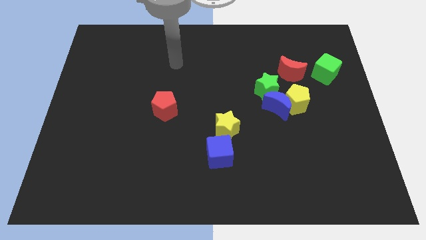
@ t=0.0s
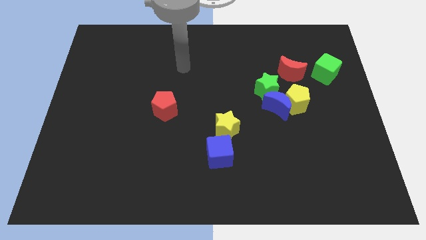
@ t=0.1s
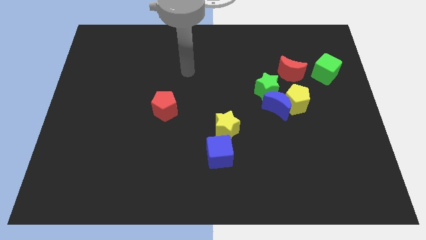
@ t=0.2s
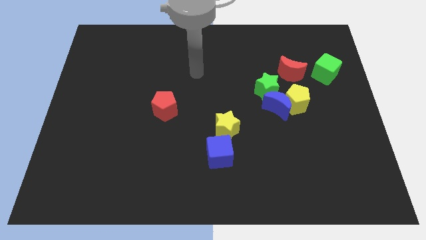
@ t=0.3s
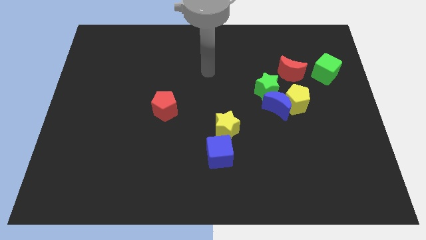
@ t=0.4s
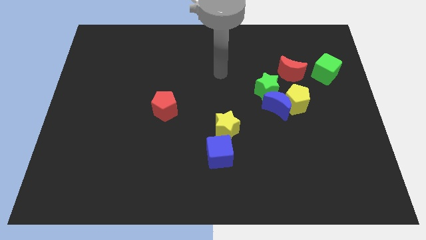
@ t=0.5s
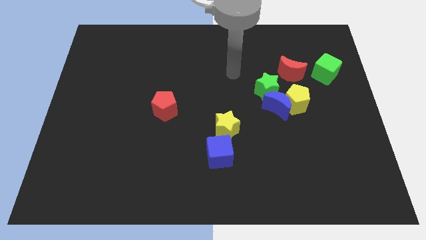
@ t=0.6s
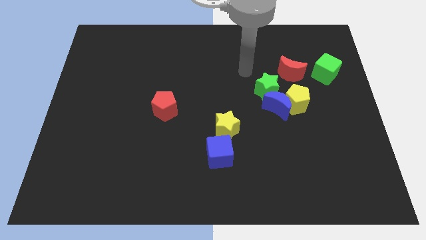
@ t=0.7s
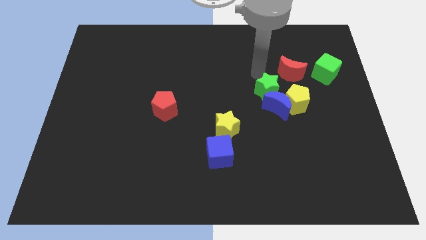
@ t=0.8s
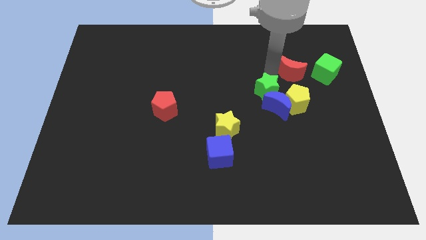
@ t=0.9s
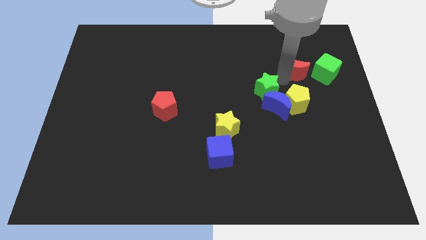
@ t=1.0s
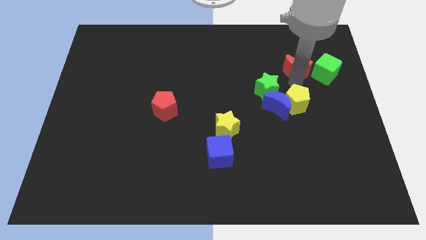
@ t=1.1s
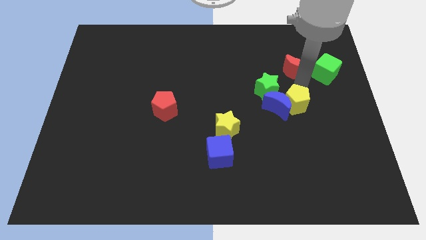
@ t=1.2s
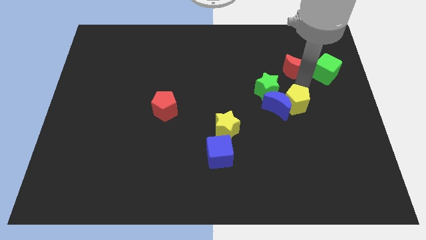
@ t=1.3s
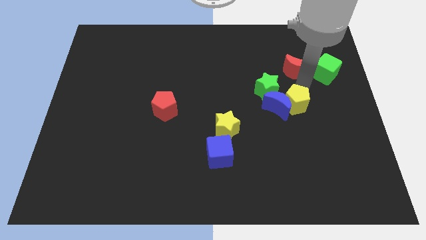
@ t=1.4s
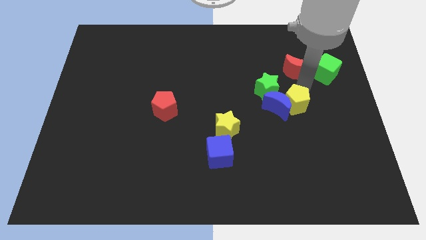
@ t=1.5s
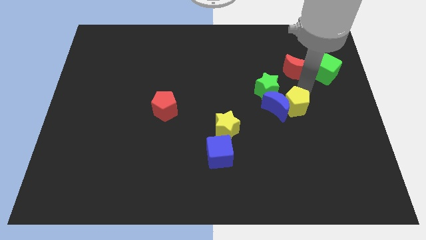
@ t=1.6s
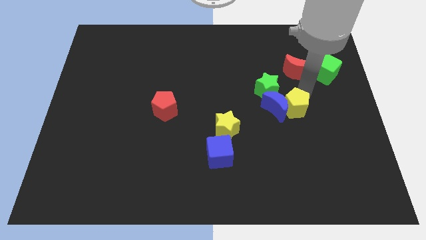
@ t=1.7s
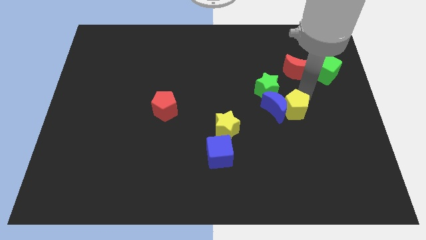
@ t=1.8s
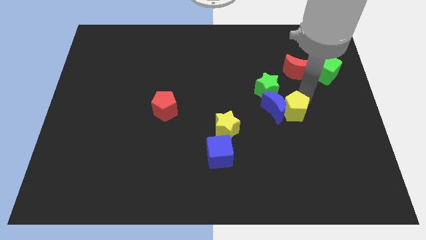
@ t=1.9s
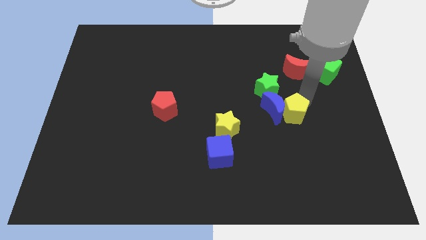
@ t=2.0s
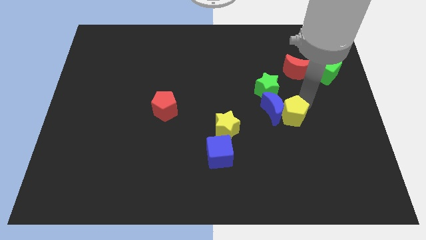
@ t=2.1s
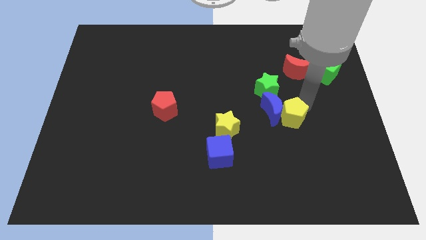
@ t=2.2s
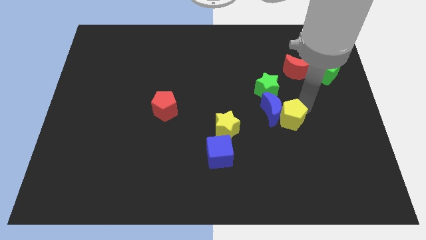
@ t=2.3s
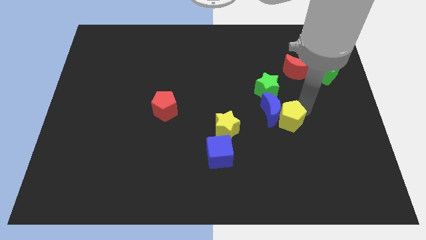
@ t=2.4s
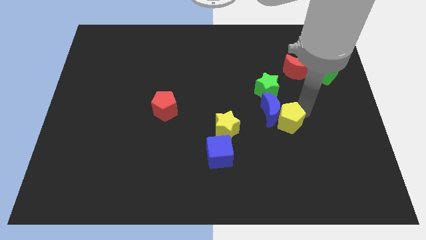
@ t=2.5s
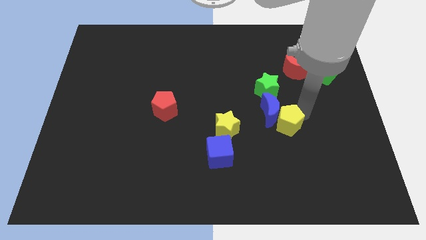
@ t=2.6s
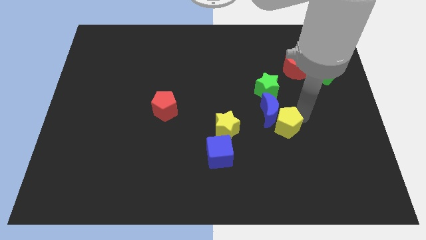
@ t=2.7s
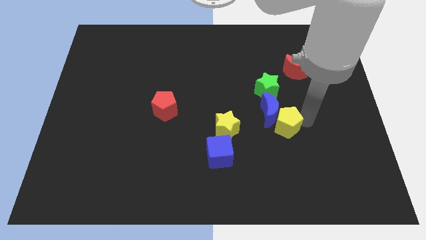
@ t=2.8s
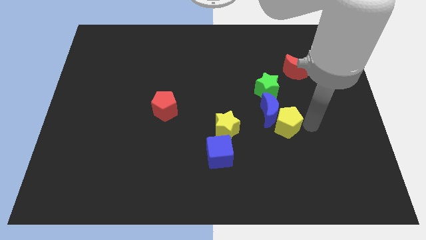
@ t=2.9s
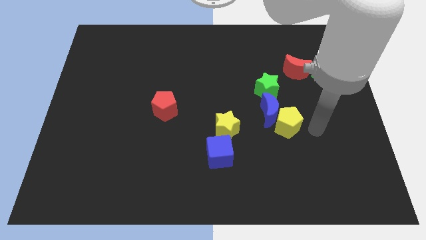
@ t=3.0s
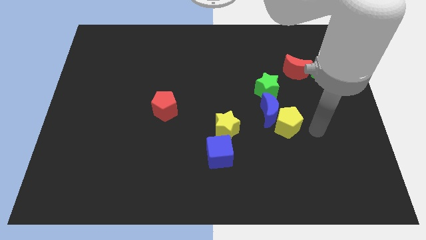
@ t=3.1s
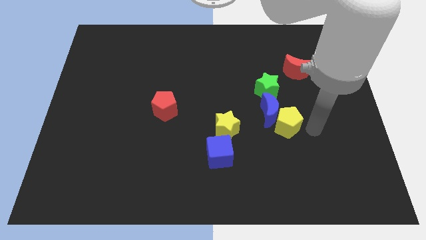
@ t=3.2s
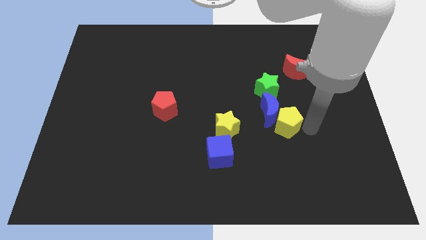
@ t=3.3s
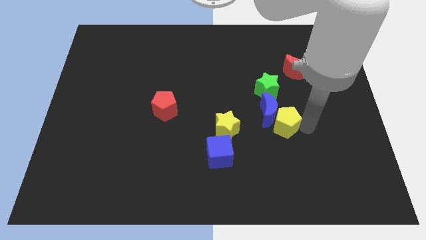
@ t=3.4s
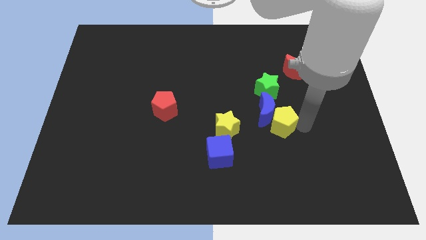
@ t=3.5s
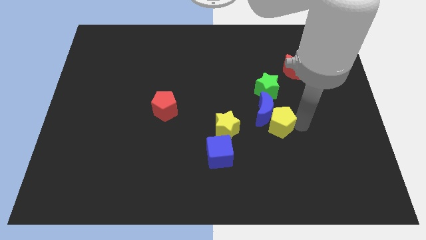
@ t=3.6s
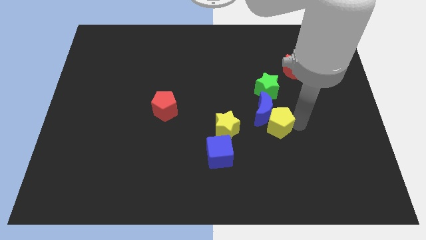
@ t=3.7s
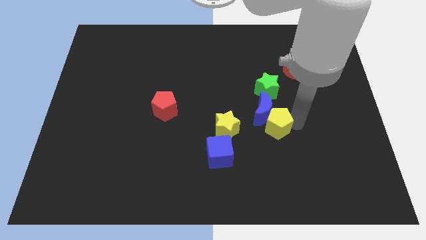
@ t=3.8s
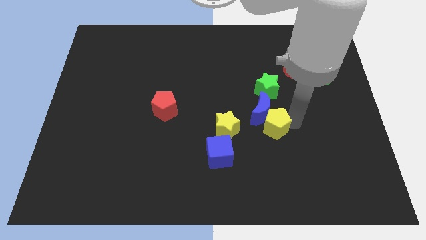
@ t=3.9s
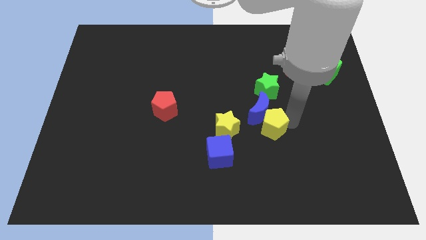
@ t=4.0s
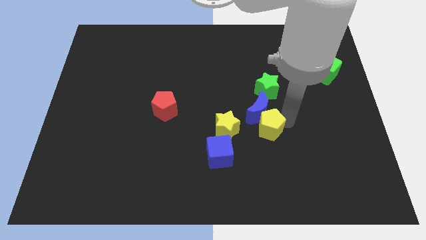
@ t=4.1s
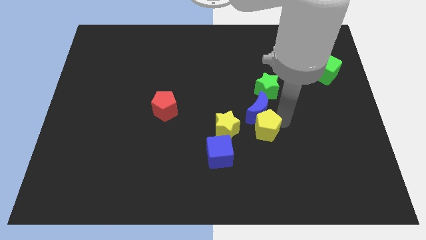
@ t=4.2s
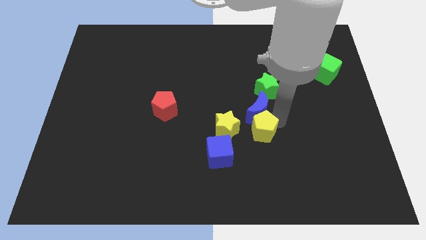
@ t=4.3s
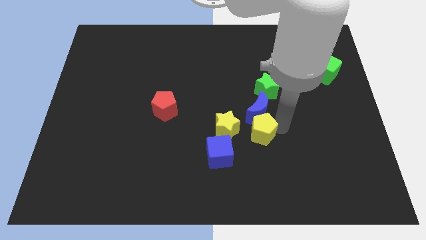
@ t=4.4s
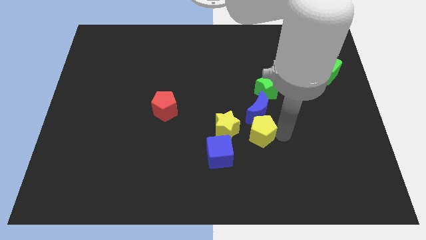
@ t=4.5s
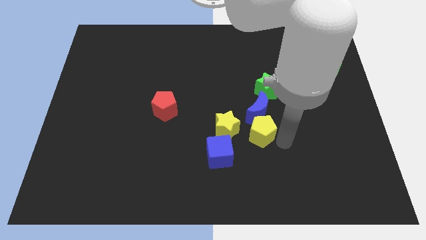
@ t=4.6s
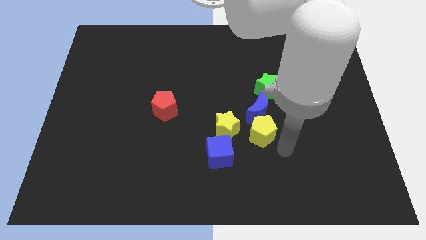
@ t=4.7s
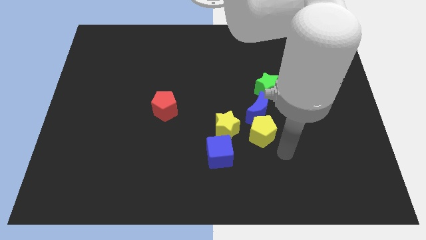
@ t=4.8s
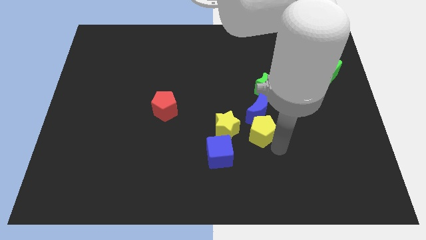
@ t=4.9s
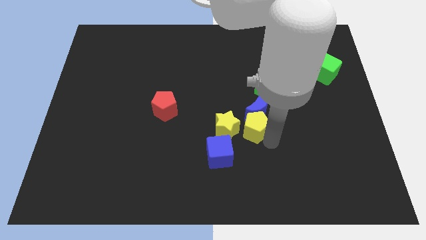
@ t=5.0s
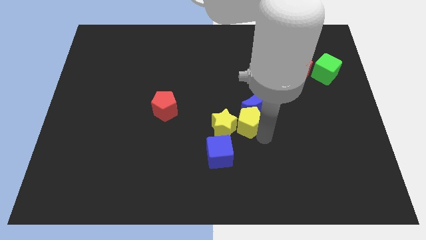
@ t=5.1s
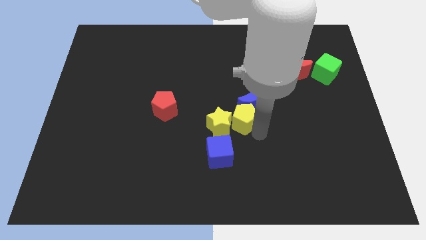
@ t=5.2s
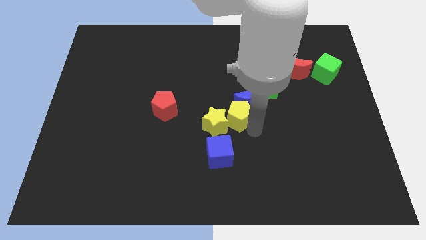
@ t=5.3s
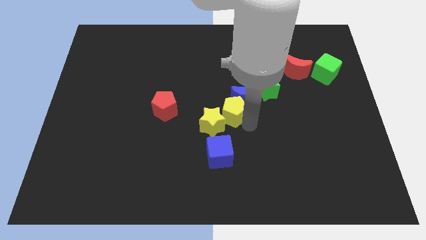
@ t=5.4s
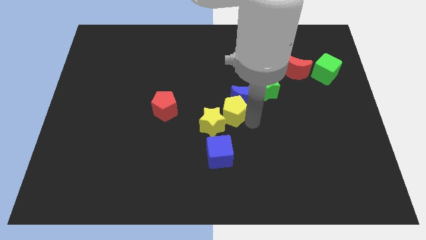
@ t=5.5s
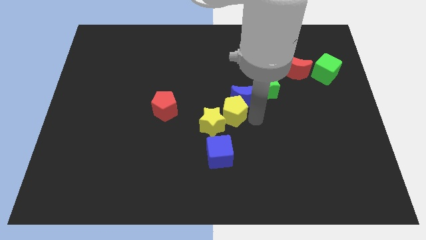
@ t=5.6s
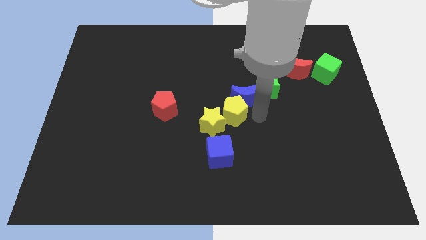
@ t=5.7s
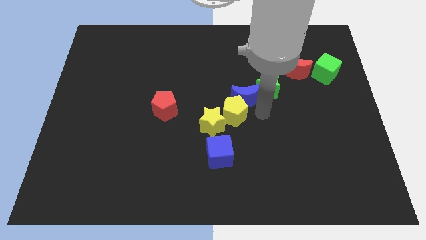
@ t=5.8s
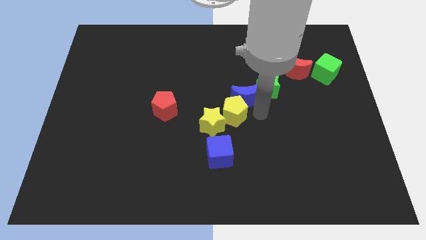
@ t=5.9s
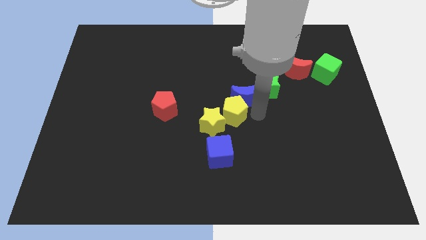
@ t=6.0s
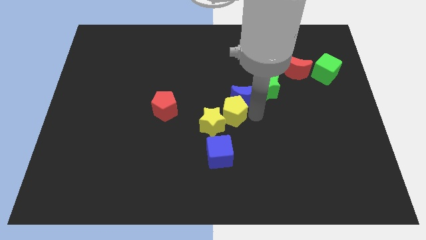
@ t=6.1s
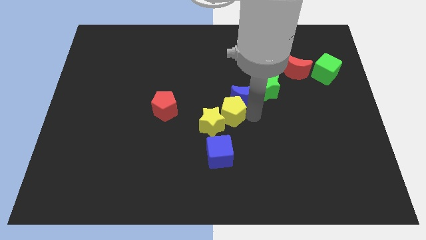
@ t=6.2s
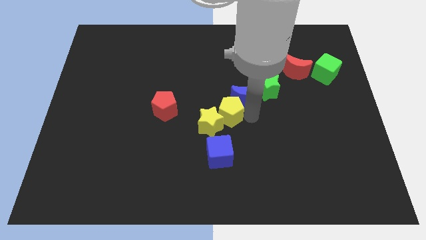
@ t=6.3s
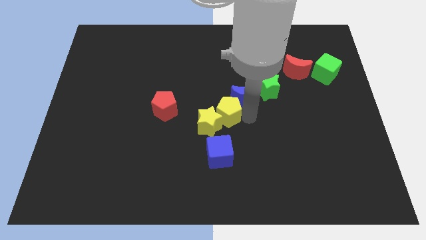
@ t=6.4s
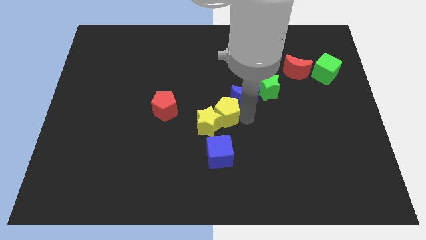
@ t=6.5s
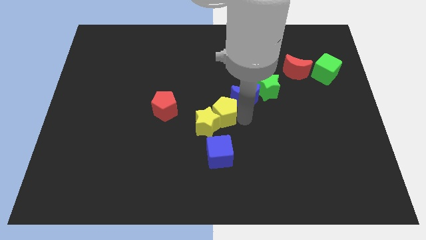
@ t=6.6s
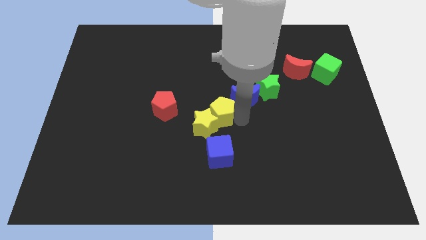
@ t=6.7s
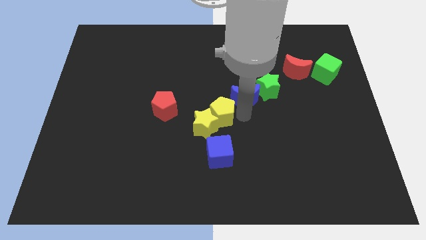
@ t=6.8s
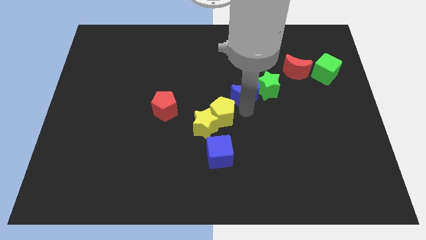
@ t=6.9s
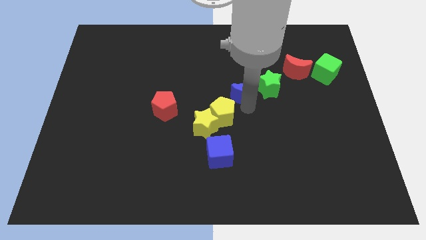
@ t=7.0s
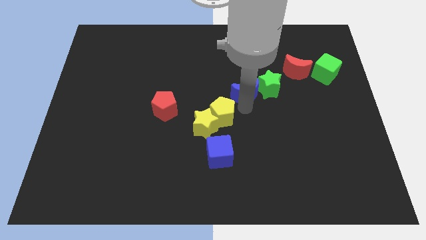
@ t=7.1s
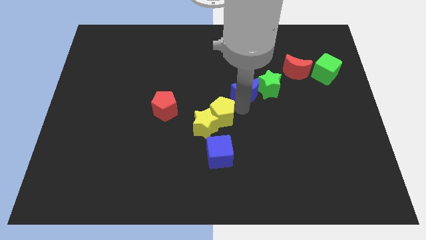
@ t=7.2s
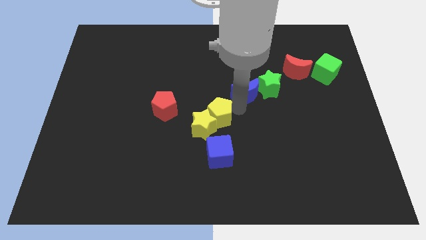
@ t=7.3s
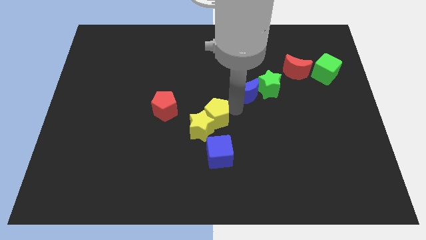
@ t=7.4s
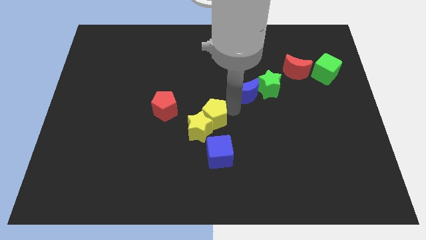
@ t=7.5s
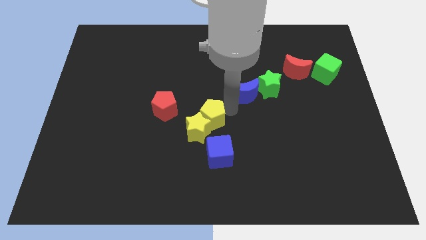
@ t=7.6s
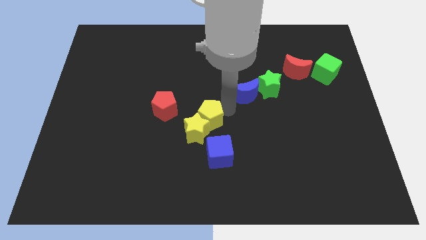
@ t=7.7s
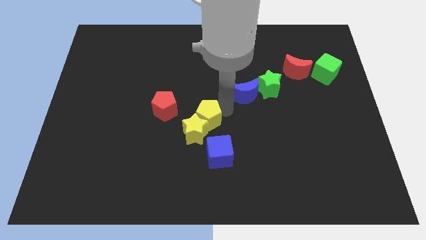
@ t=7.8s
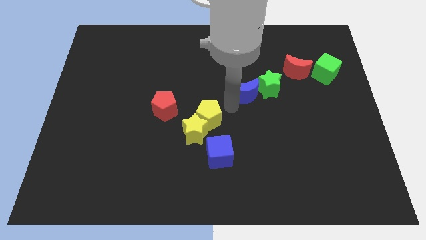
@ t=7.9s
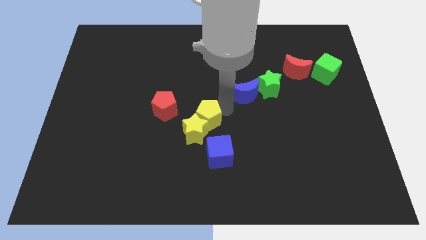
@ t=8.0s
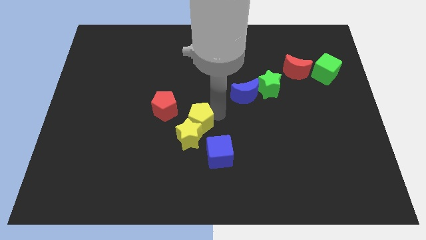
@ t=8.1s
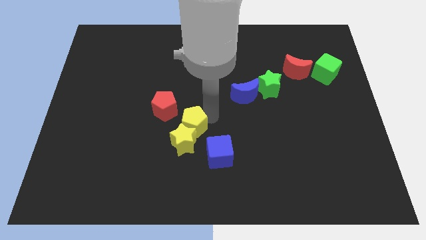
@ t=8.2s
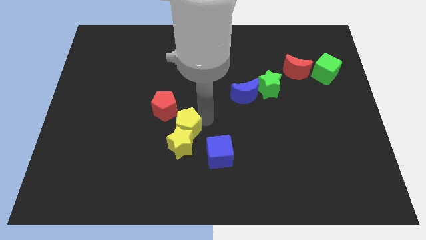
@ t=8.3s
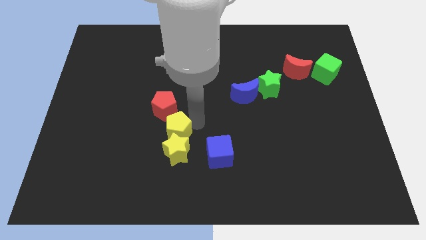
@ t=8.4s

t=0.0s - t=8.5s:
put the yellow pentagon to the bottom side of the red pentagon
